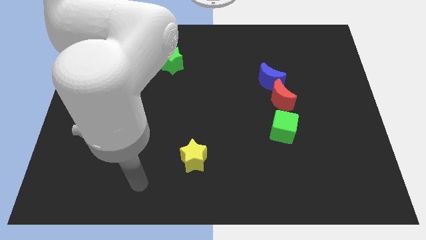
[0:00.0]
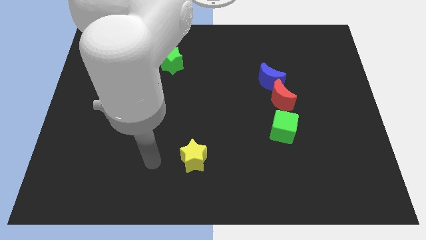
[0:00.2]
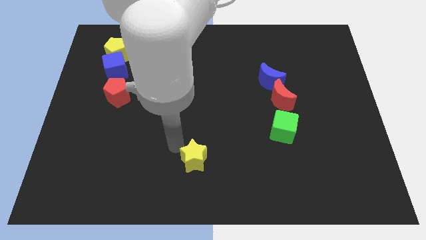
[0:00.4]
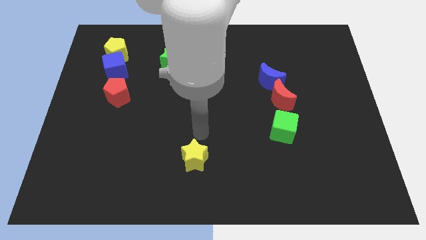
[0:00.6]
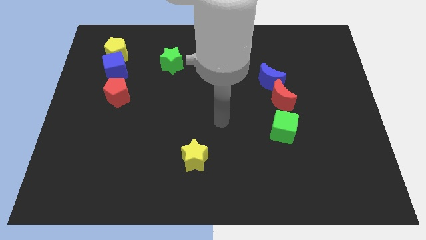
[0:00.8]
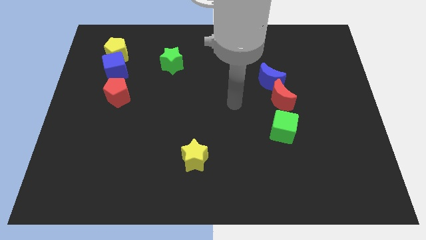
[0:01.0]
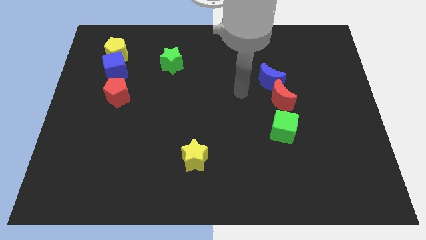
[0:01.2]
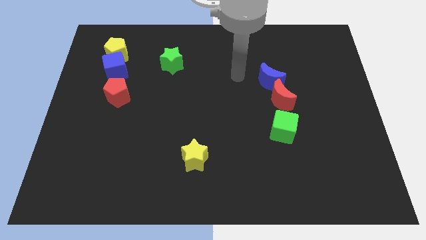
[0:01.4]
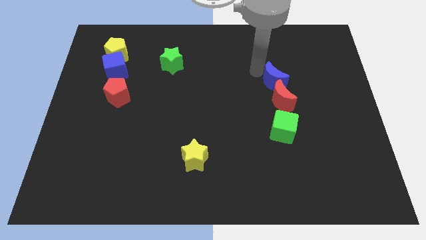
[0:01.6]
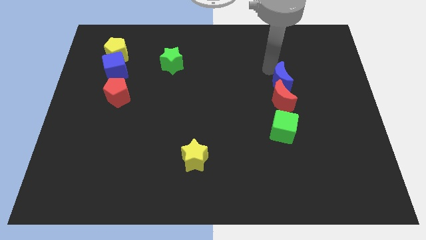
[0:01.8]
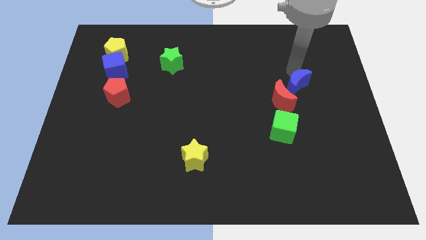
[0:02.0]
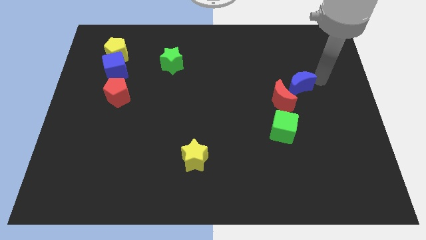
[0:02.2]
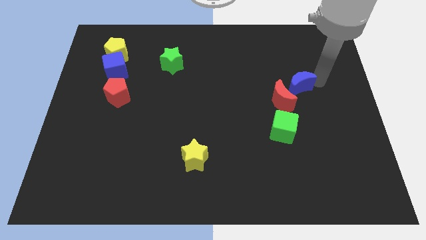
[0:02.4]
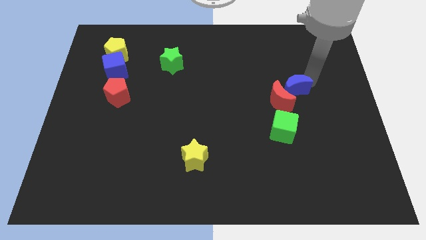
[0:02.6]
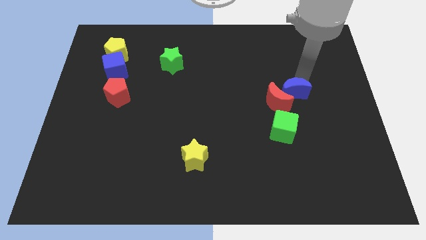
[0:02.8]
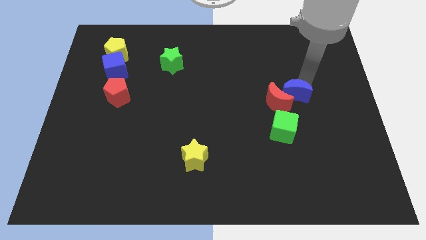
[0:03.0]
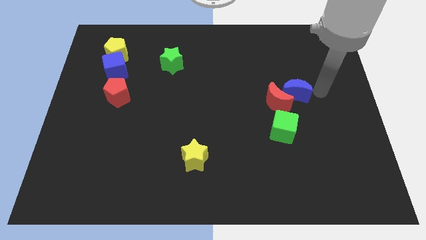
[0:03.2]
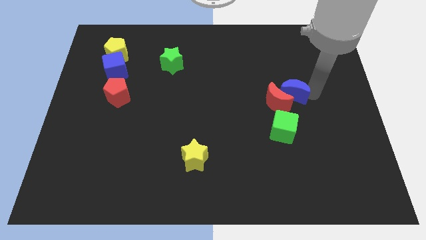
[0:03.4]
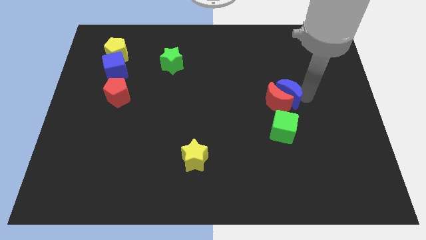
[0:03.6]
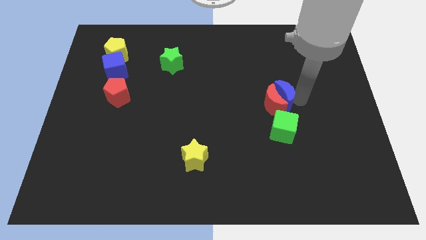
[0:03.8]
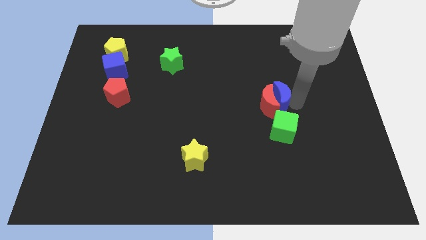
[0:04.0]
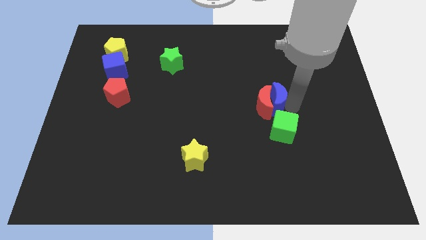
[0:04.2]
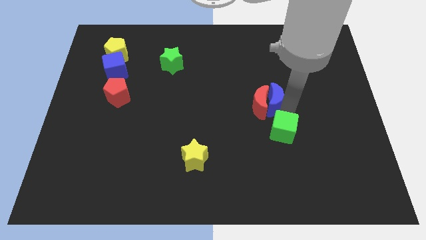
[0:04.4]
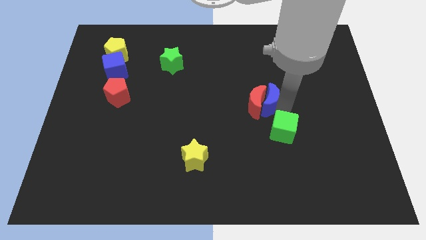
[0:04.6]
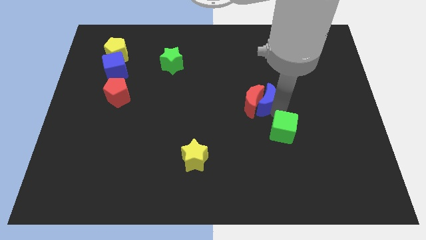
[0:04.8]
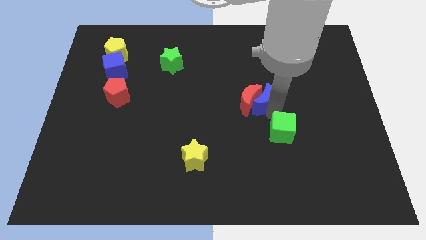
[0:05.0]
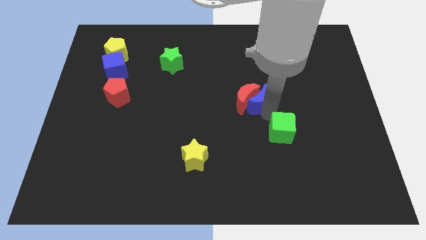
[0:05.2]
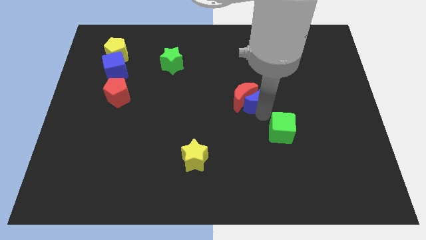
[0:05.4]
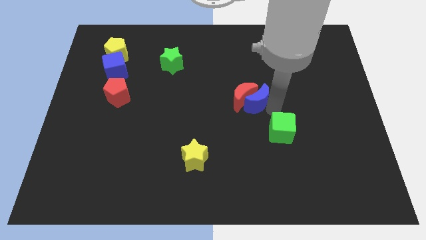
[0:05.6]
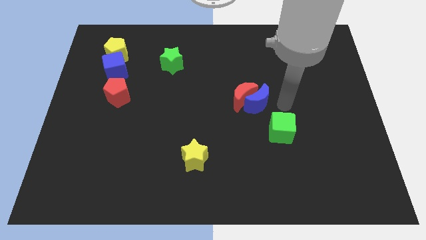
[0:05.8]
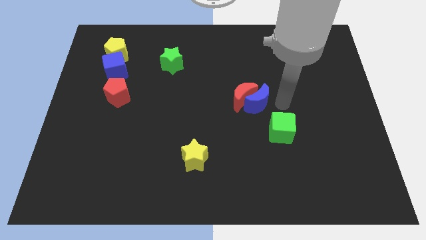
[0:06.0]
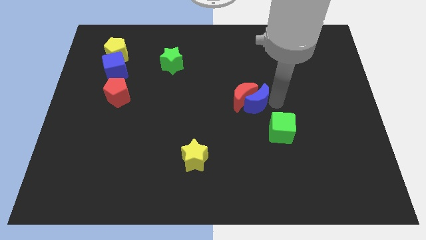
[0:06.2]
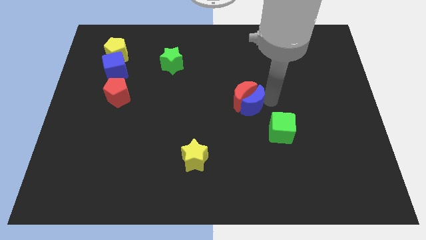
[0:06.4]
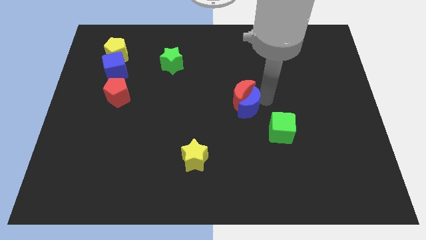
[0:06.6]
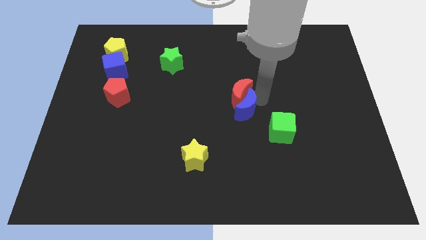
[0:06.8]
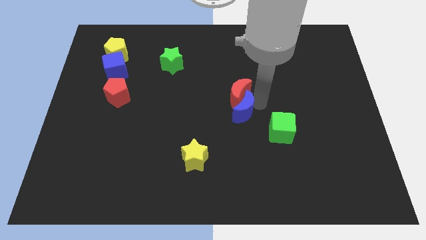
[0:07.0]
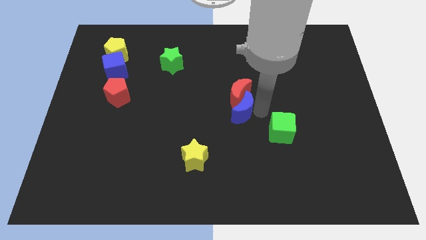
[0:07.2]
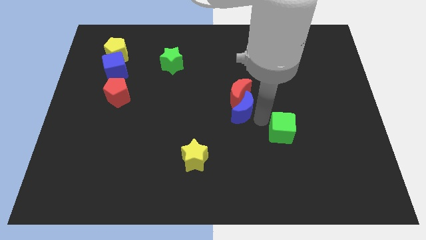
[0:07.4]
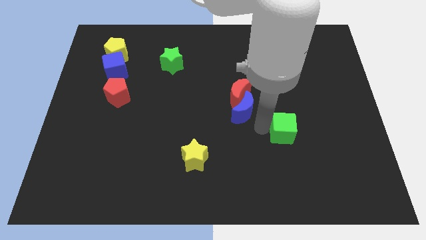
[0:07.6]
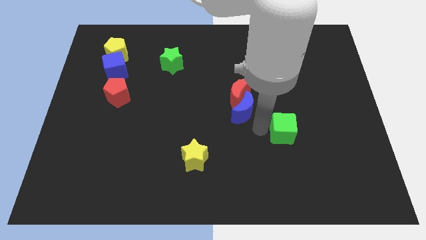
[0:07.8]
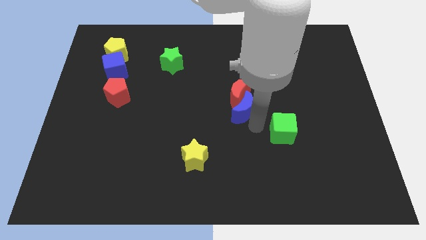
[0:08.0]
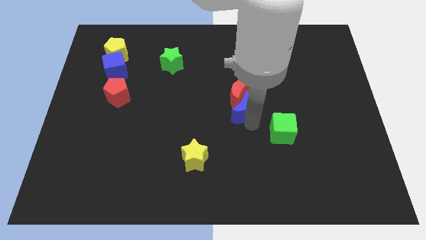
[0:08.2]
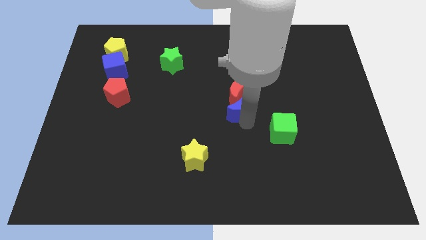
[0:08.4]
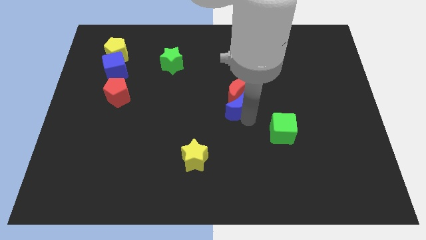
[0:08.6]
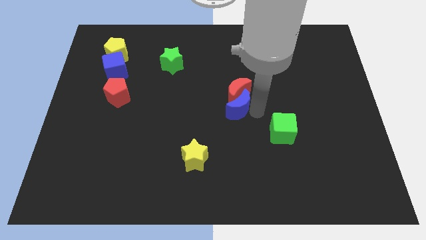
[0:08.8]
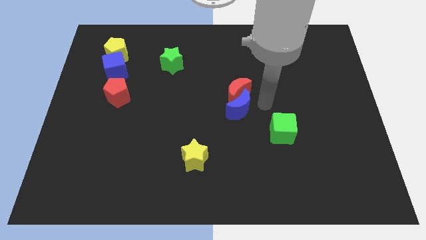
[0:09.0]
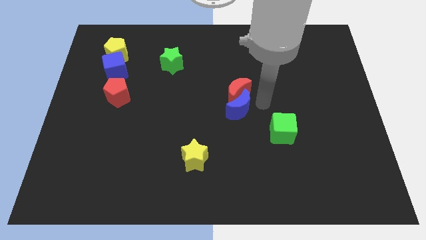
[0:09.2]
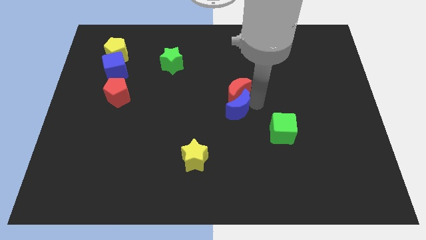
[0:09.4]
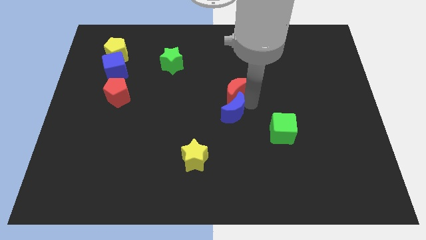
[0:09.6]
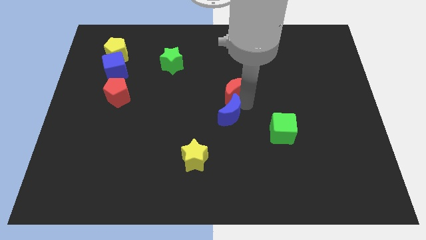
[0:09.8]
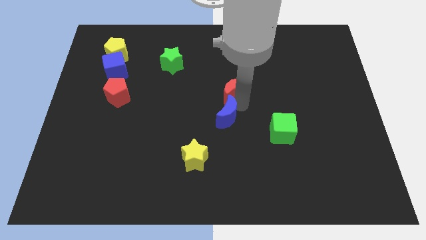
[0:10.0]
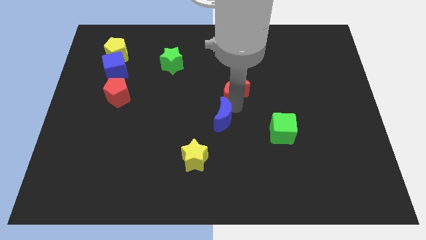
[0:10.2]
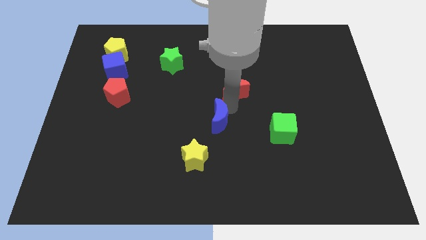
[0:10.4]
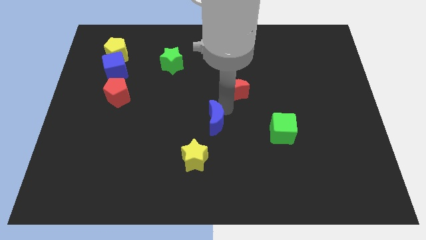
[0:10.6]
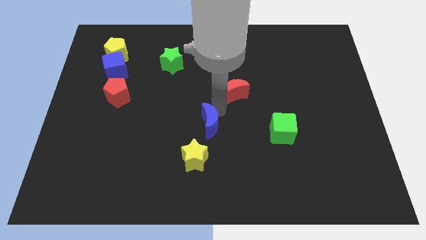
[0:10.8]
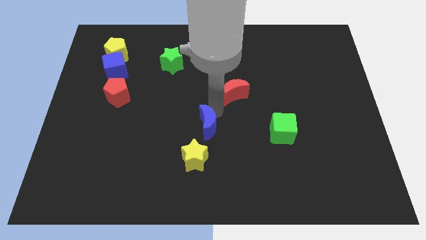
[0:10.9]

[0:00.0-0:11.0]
slide the blue moon diagonally downwards and to the left

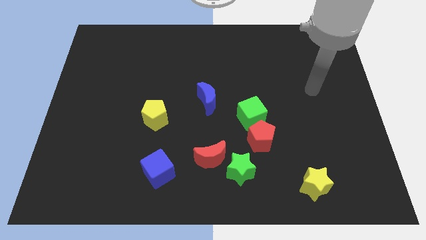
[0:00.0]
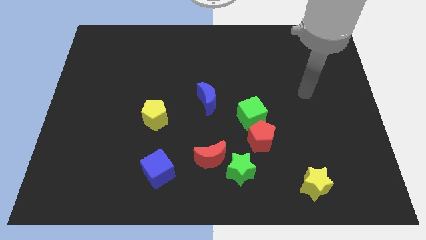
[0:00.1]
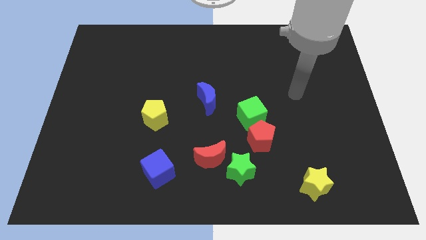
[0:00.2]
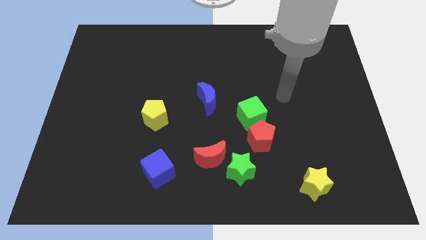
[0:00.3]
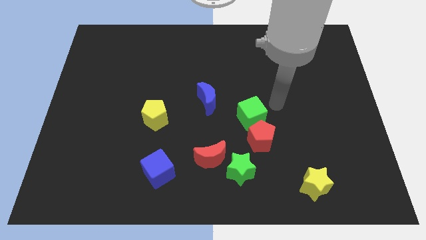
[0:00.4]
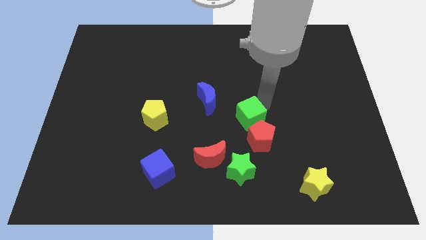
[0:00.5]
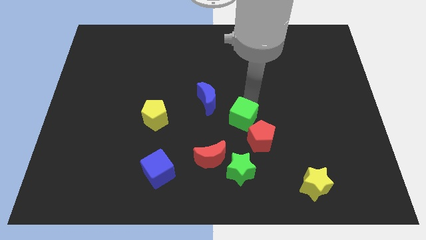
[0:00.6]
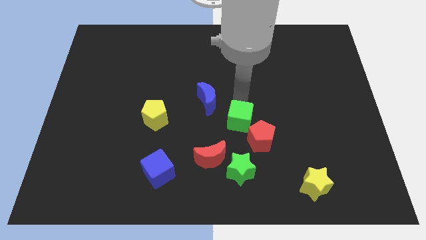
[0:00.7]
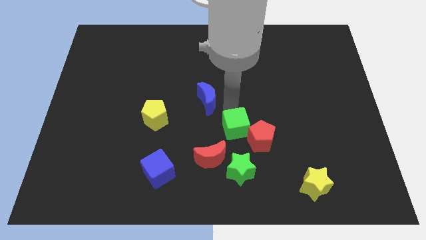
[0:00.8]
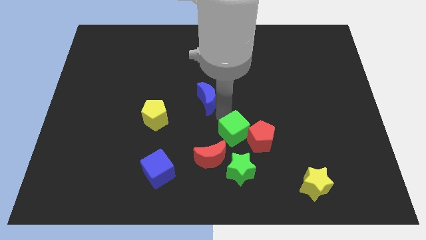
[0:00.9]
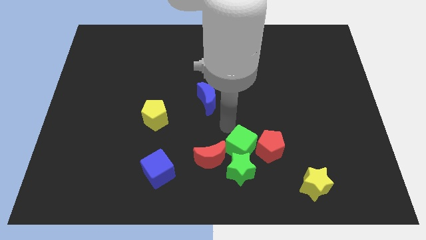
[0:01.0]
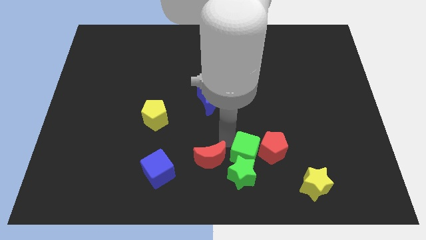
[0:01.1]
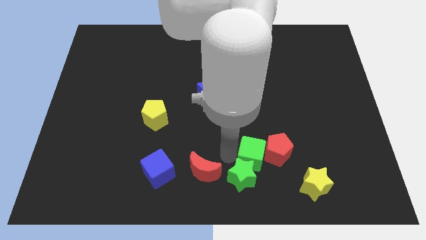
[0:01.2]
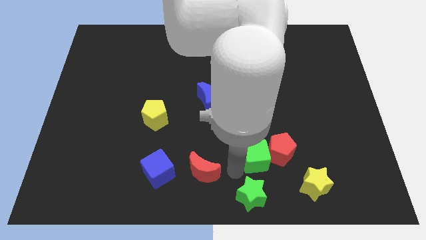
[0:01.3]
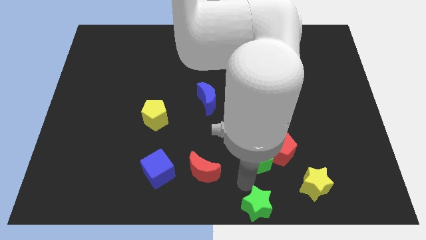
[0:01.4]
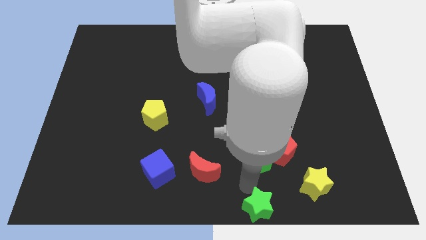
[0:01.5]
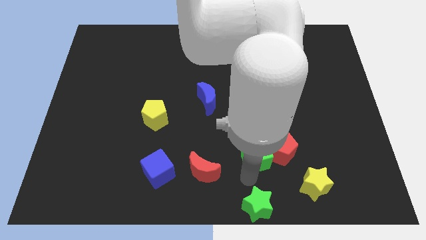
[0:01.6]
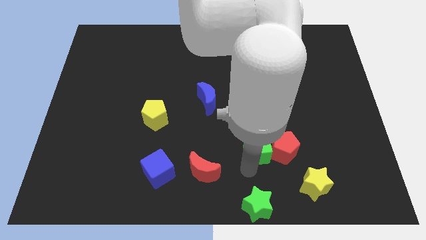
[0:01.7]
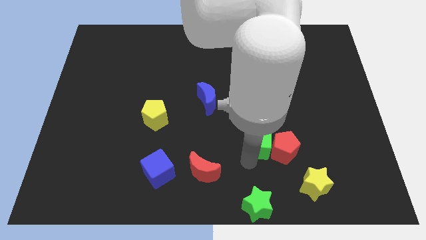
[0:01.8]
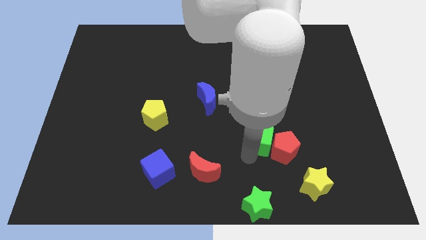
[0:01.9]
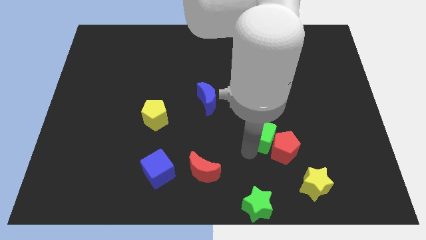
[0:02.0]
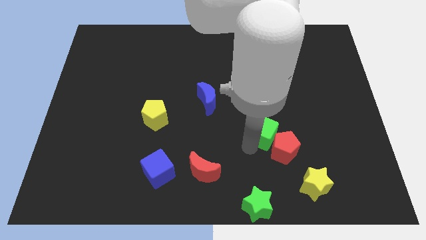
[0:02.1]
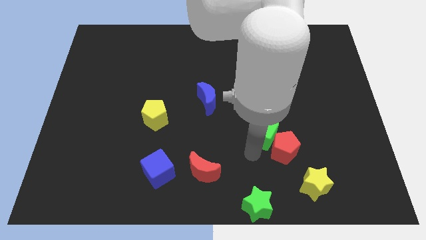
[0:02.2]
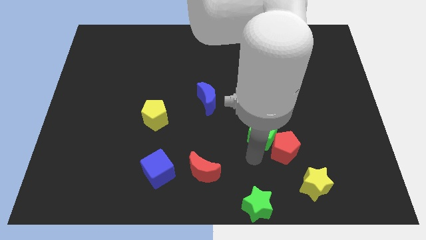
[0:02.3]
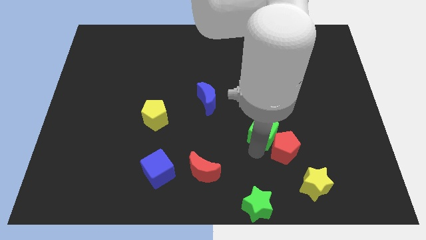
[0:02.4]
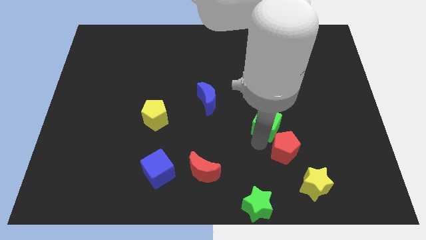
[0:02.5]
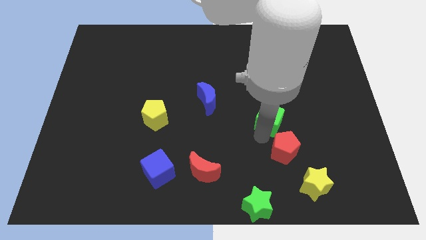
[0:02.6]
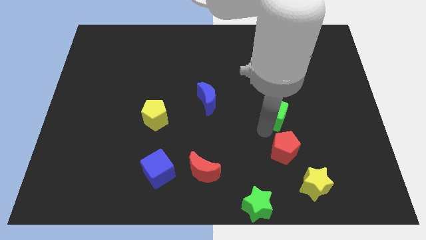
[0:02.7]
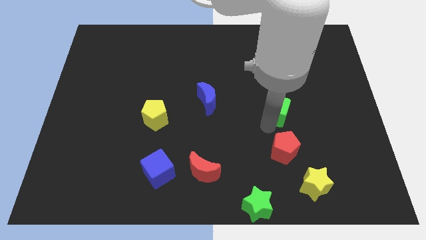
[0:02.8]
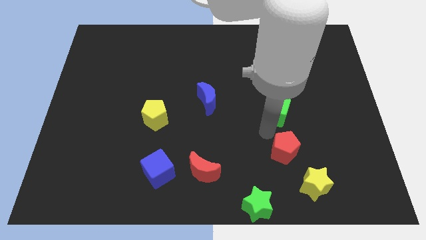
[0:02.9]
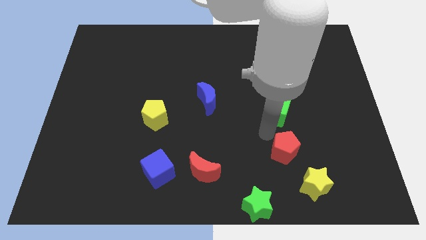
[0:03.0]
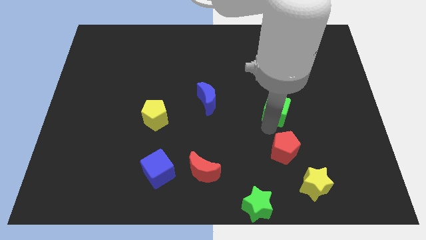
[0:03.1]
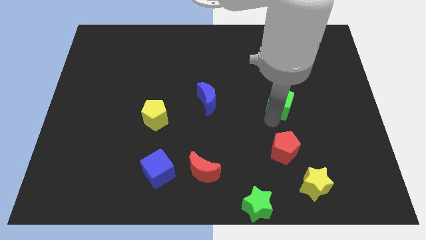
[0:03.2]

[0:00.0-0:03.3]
slightly push the green cube up and right diagonally
